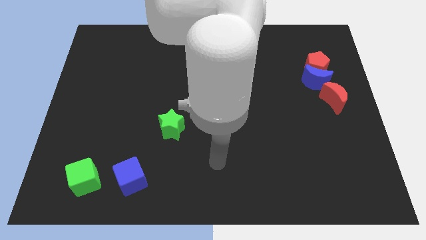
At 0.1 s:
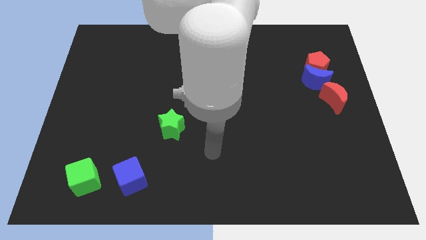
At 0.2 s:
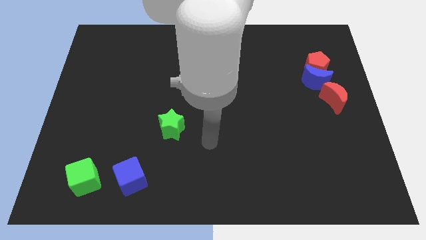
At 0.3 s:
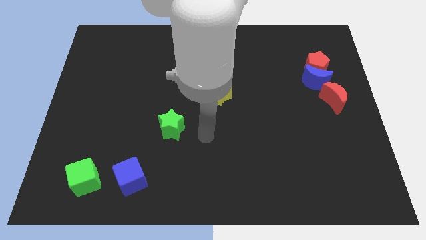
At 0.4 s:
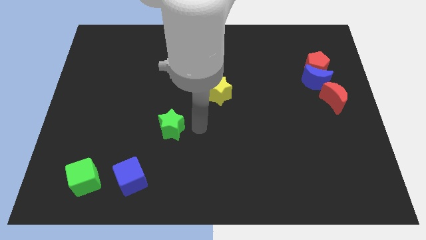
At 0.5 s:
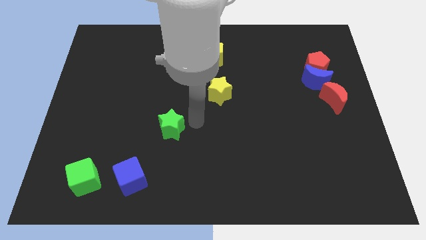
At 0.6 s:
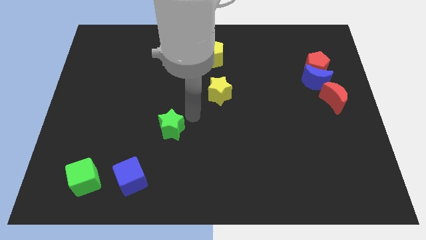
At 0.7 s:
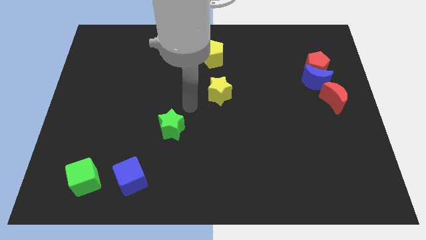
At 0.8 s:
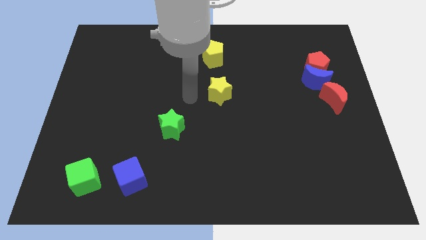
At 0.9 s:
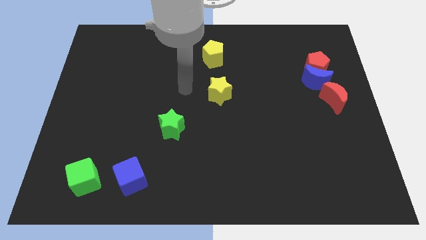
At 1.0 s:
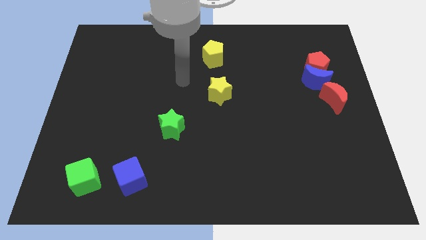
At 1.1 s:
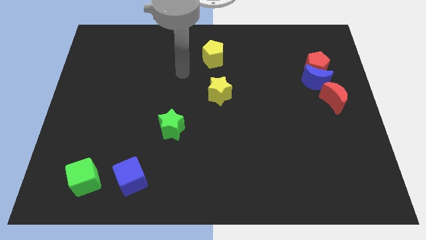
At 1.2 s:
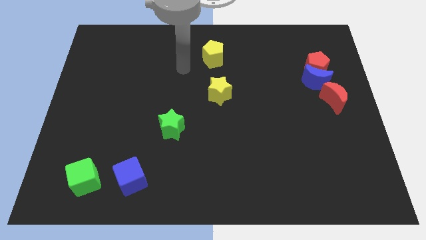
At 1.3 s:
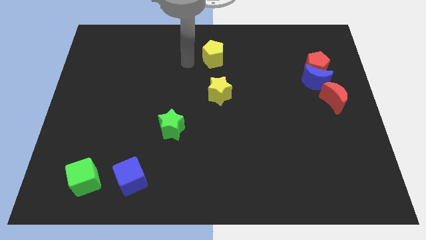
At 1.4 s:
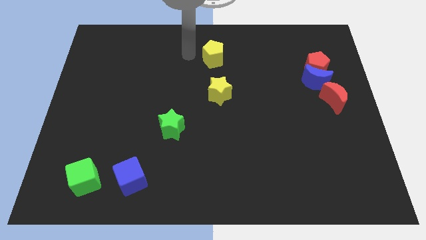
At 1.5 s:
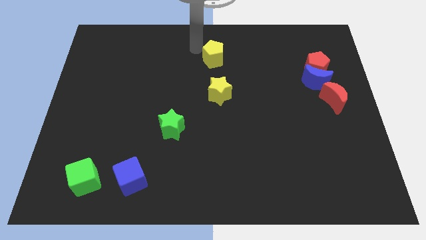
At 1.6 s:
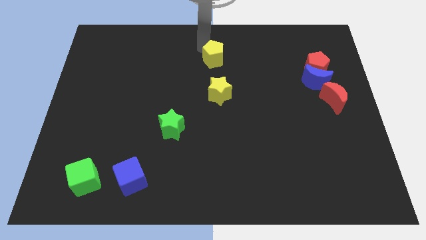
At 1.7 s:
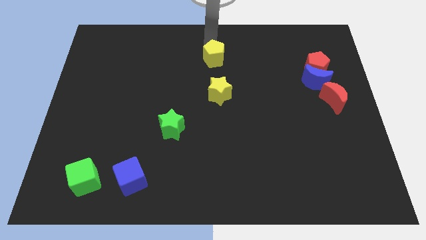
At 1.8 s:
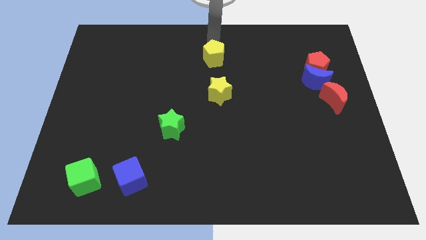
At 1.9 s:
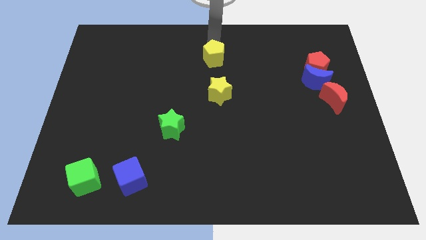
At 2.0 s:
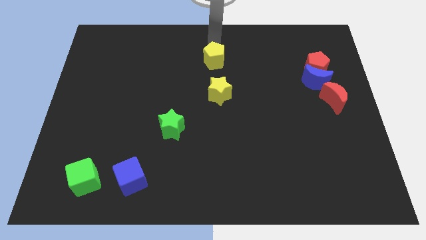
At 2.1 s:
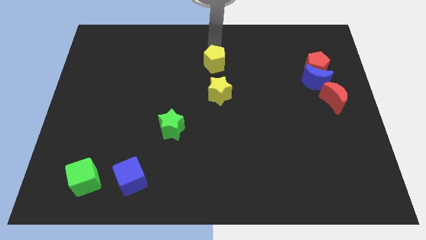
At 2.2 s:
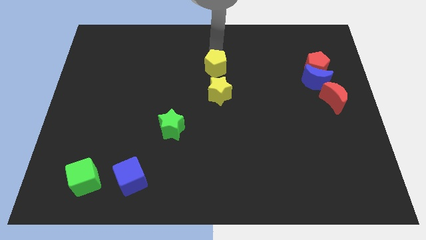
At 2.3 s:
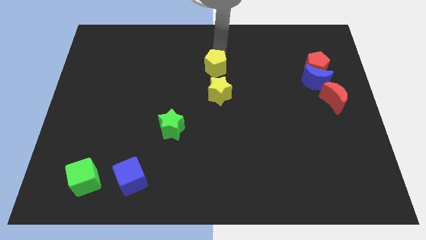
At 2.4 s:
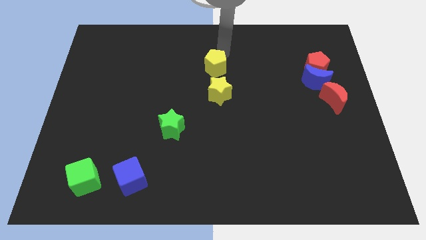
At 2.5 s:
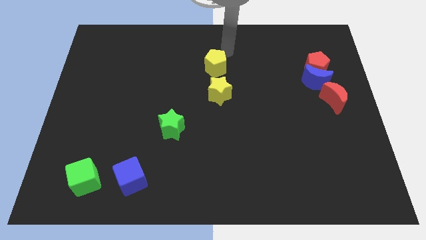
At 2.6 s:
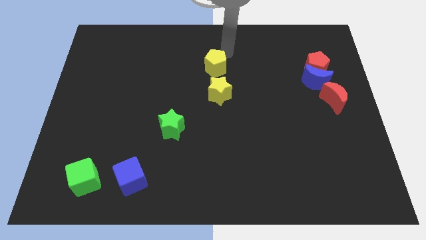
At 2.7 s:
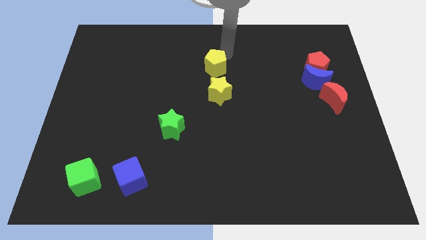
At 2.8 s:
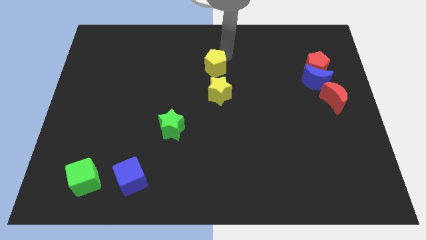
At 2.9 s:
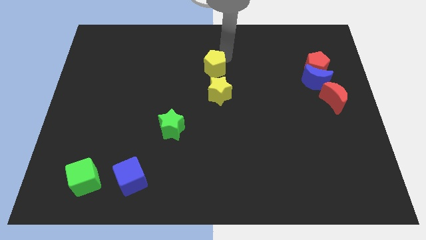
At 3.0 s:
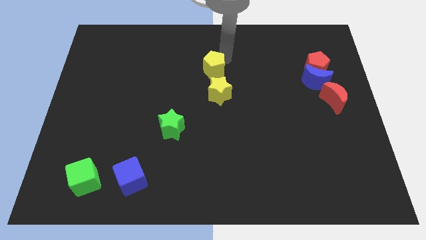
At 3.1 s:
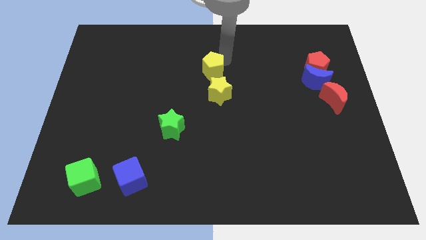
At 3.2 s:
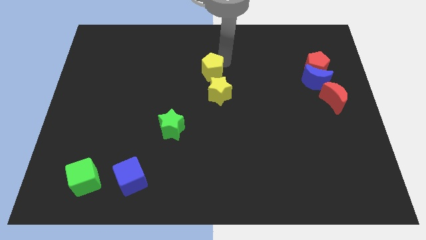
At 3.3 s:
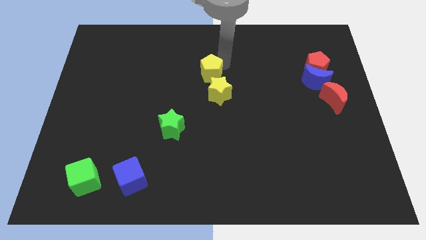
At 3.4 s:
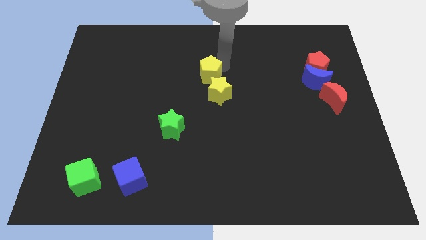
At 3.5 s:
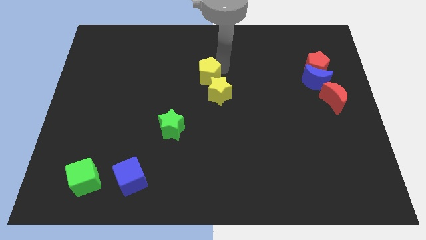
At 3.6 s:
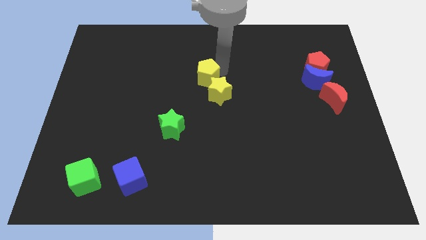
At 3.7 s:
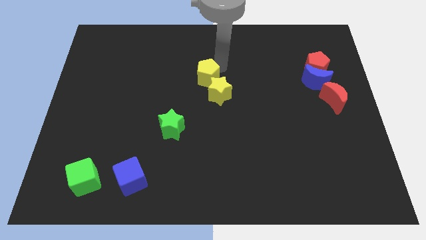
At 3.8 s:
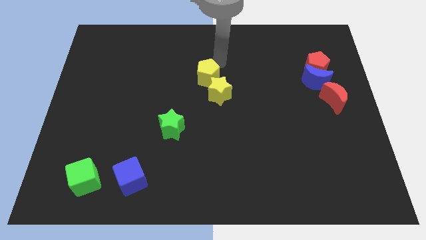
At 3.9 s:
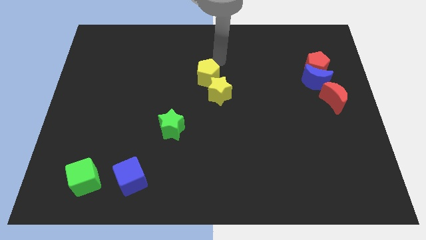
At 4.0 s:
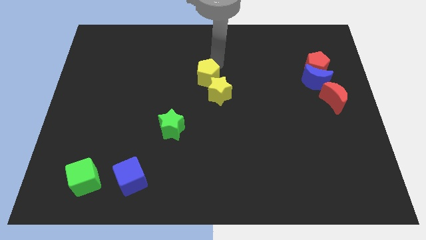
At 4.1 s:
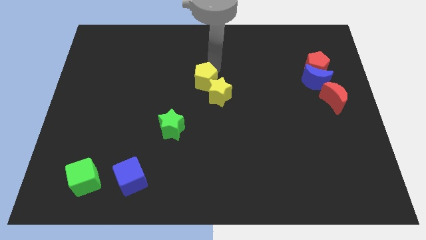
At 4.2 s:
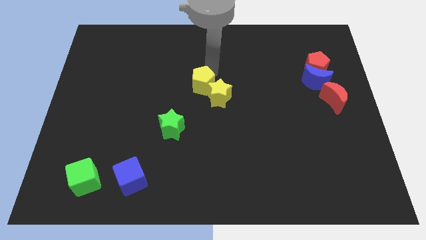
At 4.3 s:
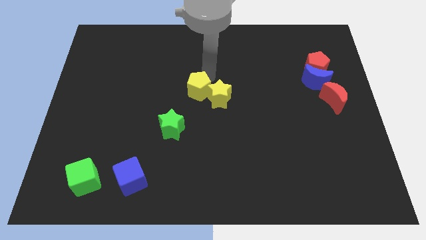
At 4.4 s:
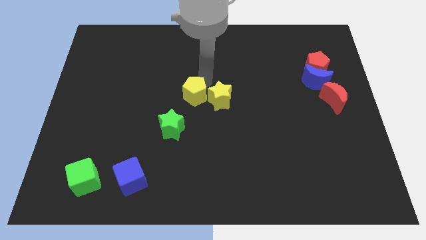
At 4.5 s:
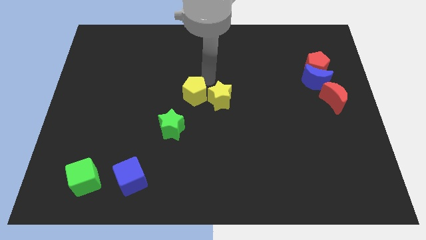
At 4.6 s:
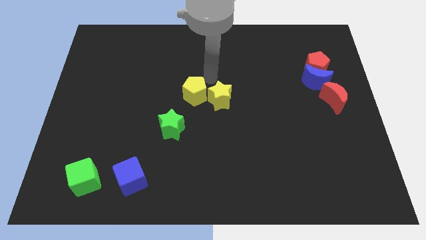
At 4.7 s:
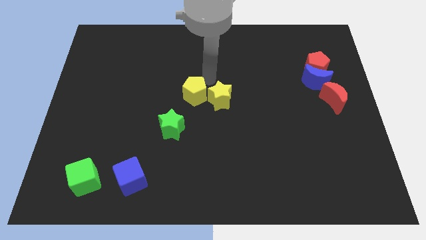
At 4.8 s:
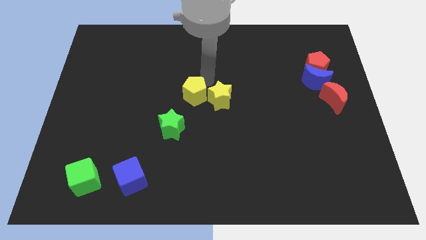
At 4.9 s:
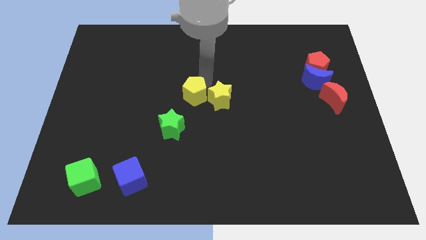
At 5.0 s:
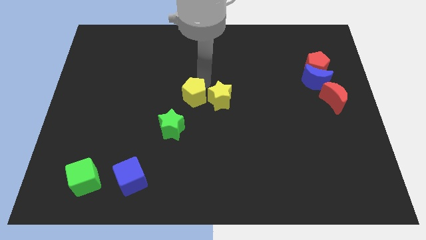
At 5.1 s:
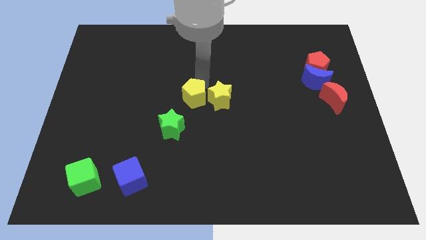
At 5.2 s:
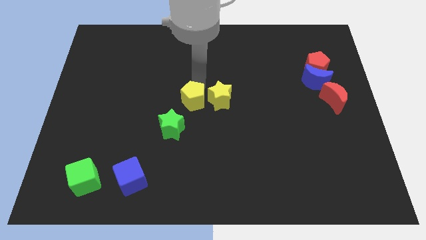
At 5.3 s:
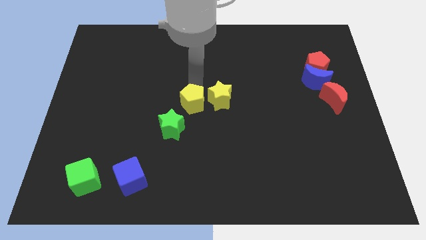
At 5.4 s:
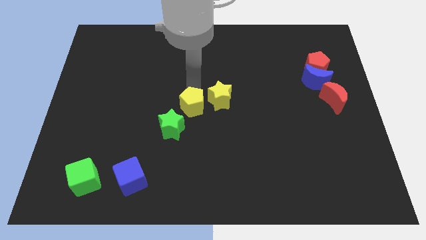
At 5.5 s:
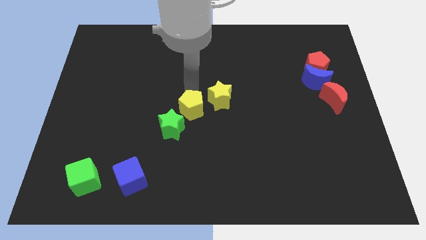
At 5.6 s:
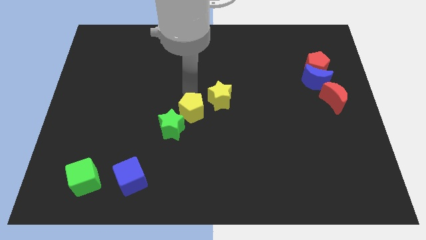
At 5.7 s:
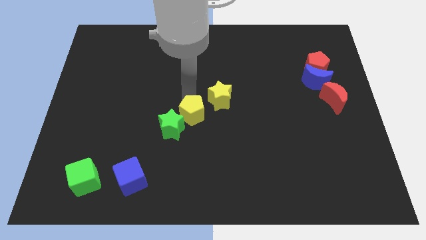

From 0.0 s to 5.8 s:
move the yellow pentagon towards the green star

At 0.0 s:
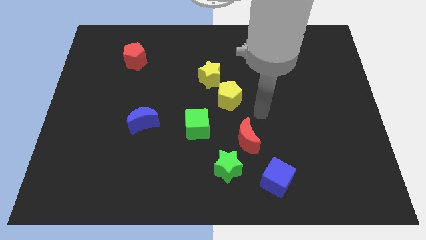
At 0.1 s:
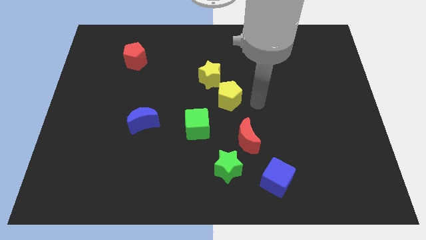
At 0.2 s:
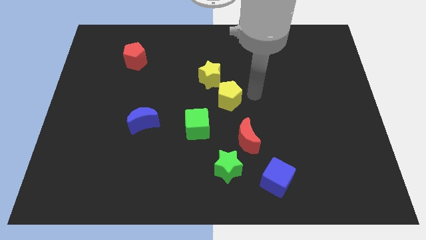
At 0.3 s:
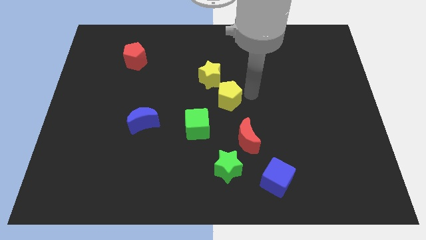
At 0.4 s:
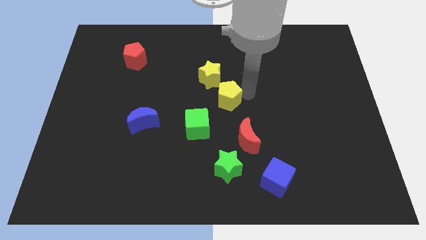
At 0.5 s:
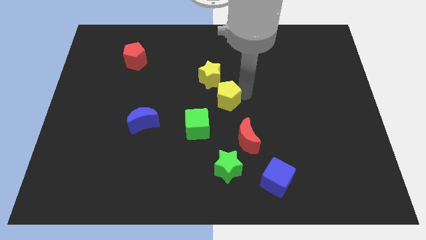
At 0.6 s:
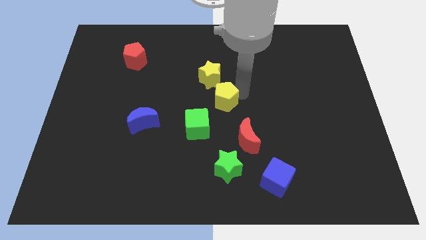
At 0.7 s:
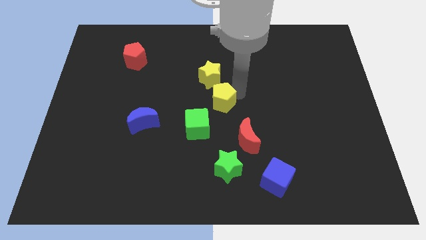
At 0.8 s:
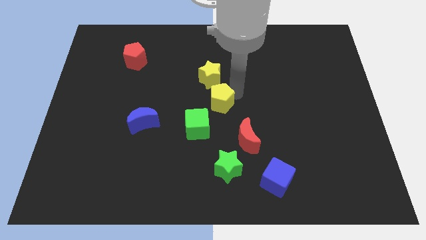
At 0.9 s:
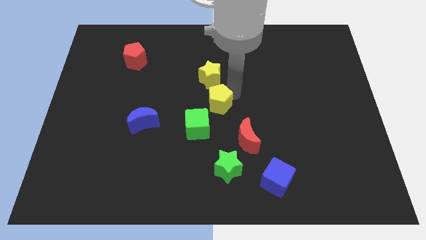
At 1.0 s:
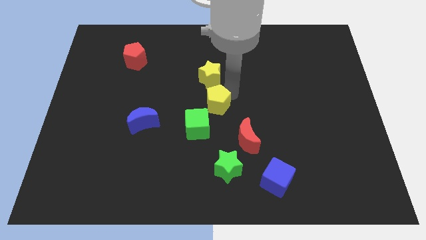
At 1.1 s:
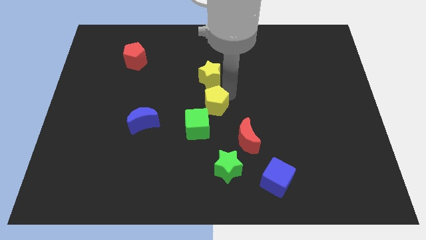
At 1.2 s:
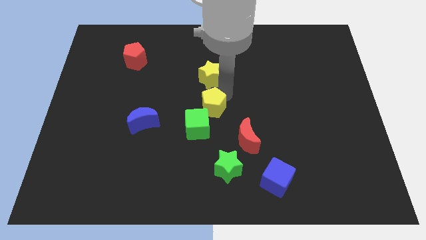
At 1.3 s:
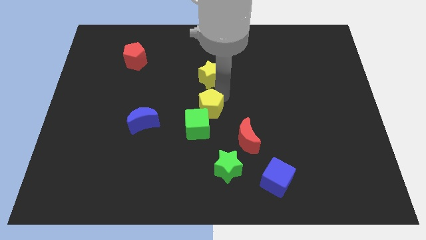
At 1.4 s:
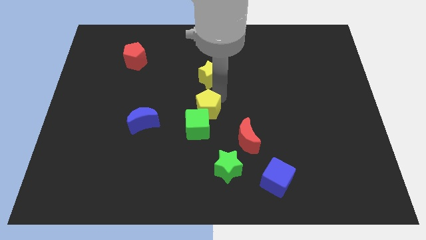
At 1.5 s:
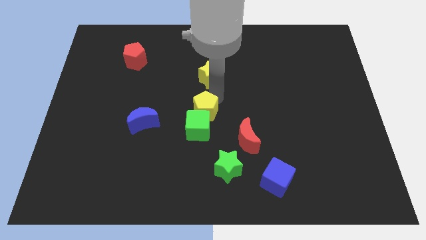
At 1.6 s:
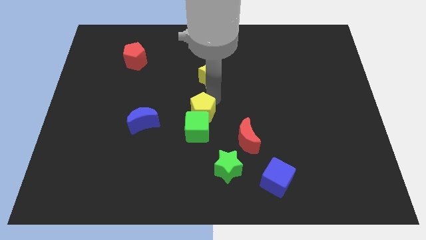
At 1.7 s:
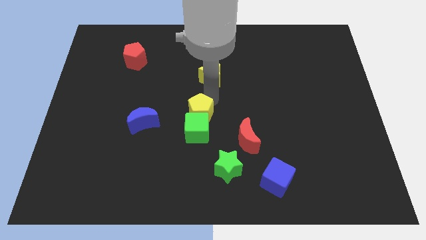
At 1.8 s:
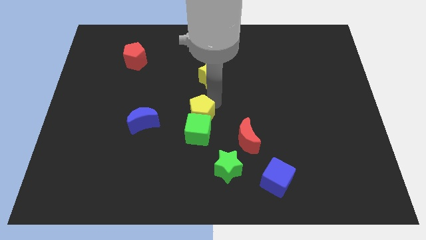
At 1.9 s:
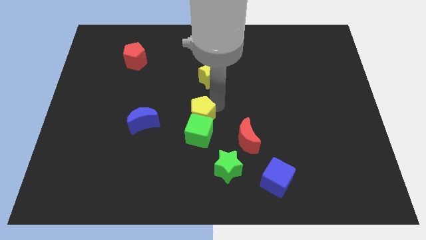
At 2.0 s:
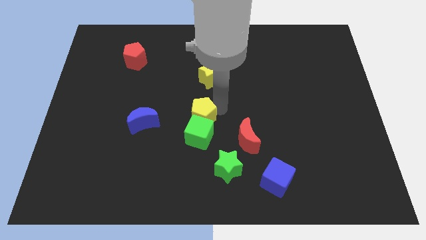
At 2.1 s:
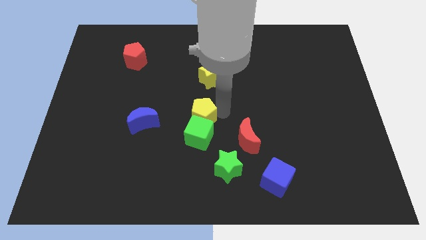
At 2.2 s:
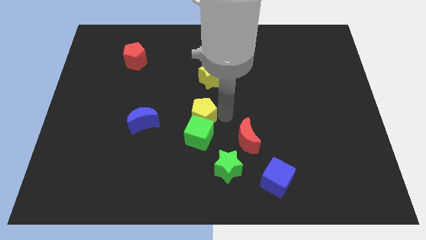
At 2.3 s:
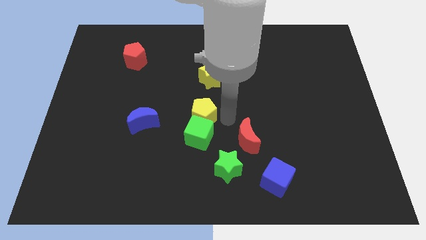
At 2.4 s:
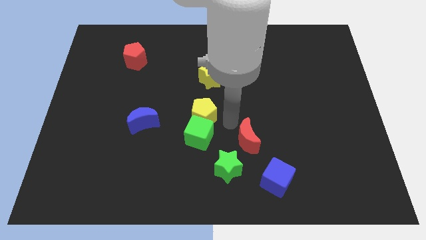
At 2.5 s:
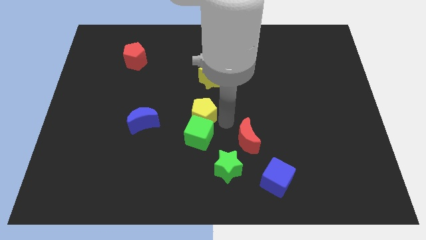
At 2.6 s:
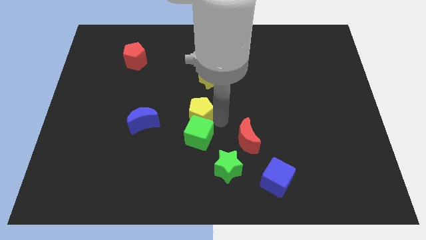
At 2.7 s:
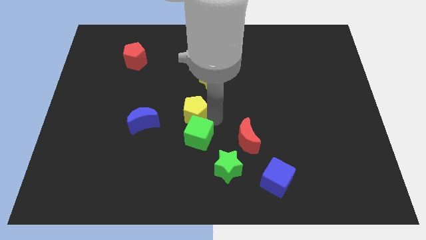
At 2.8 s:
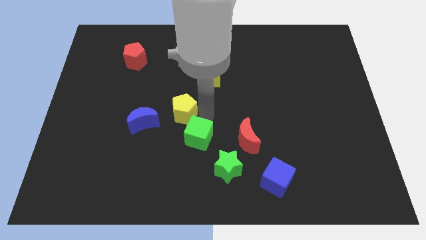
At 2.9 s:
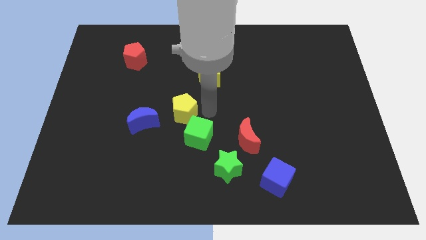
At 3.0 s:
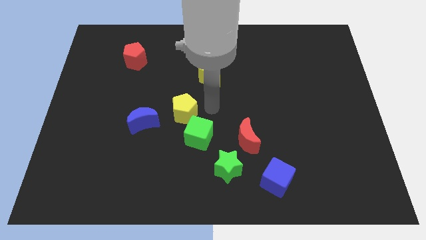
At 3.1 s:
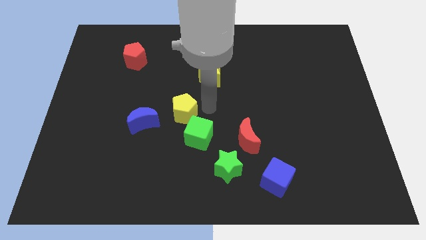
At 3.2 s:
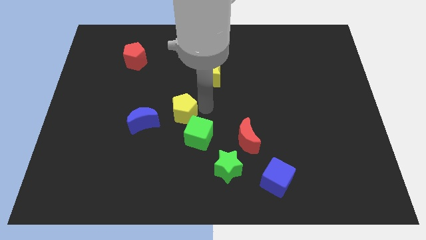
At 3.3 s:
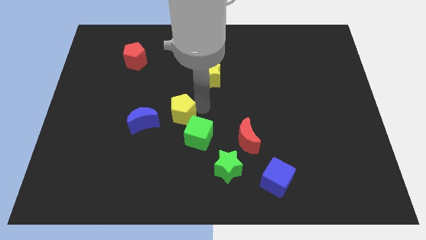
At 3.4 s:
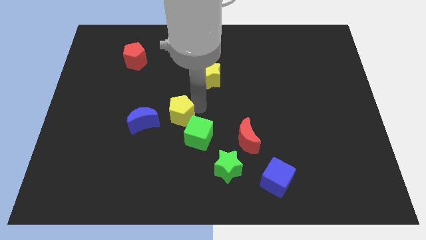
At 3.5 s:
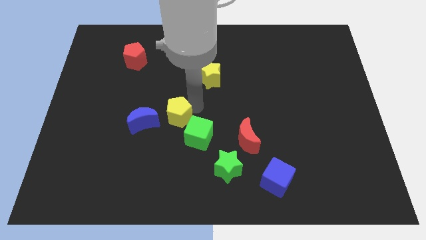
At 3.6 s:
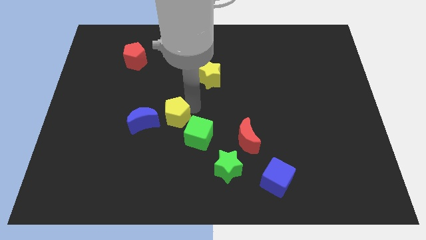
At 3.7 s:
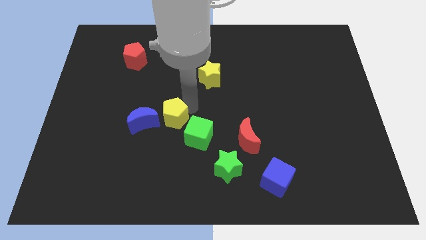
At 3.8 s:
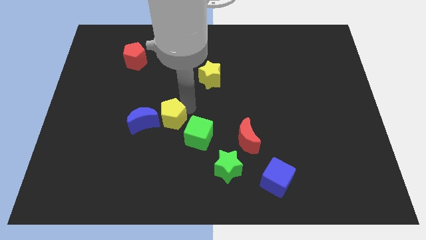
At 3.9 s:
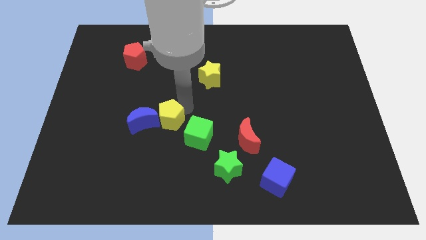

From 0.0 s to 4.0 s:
put the yellow pentagon close to the blue moon
